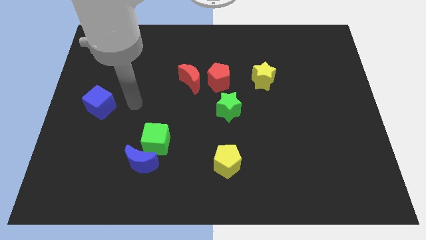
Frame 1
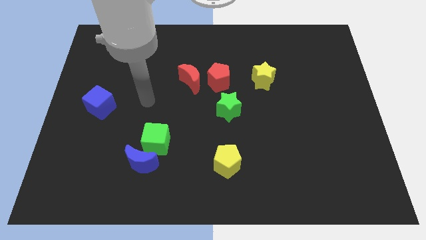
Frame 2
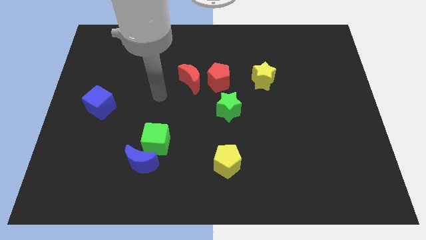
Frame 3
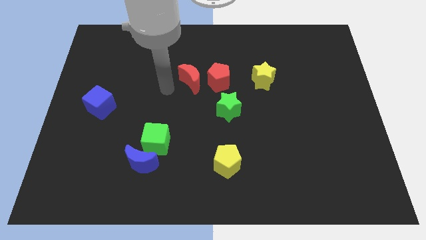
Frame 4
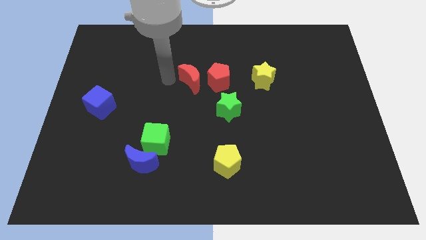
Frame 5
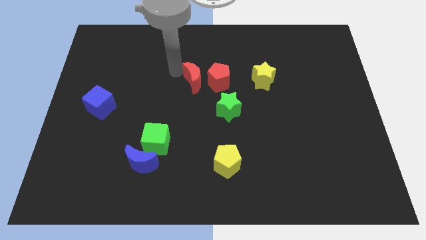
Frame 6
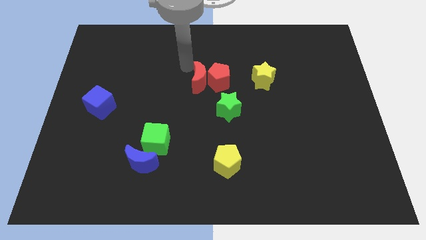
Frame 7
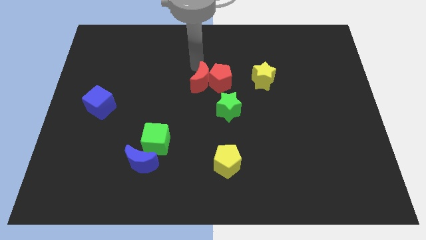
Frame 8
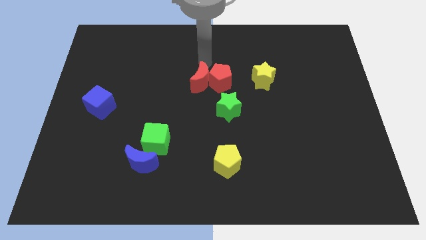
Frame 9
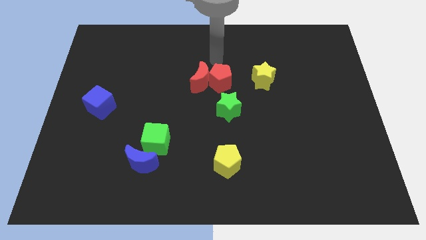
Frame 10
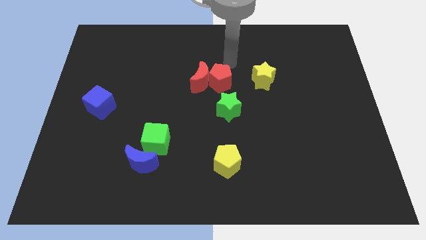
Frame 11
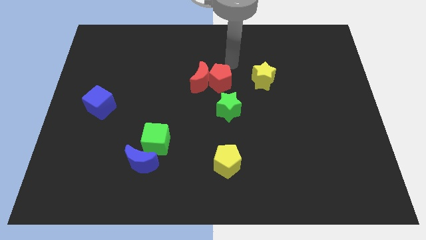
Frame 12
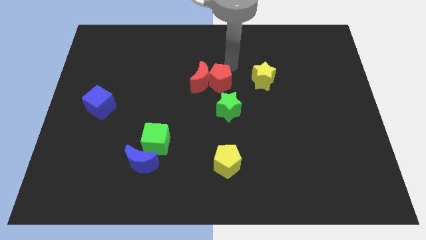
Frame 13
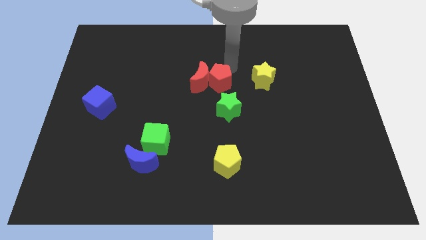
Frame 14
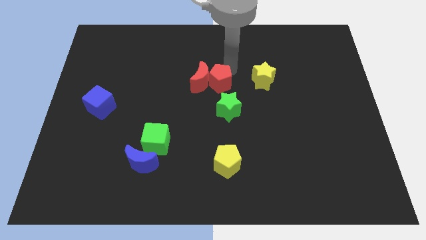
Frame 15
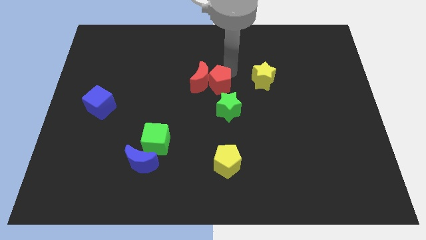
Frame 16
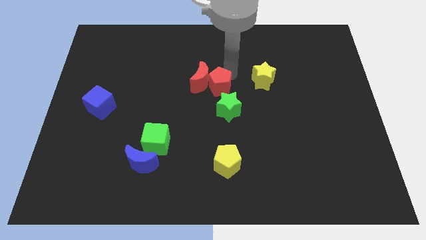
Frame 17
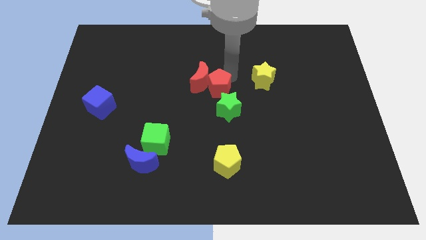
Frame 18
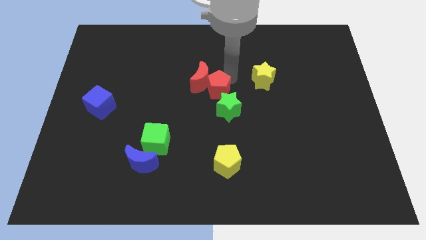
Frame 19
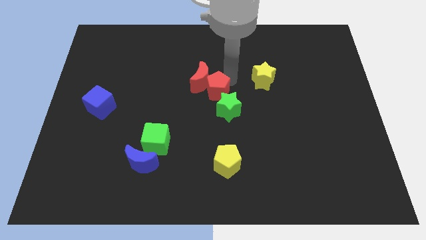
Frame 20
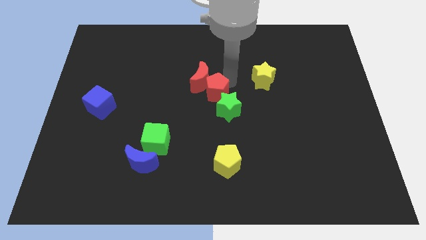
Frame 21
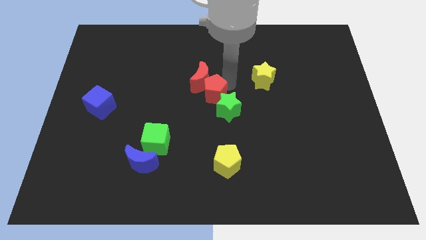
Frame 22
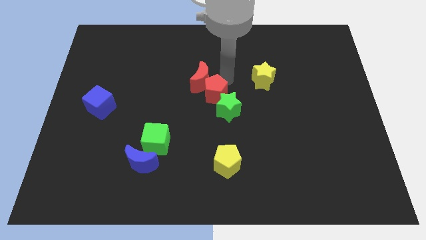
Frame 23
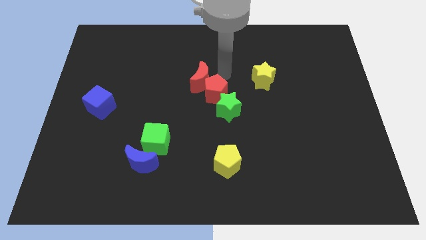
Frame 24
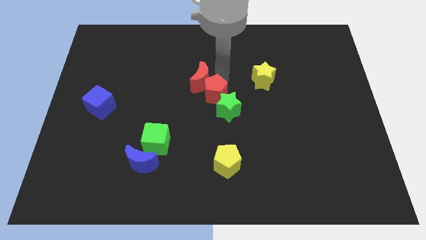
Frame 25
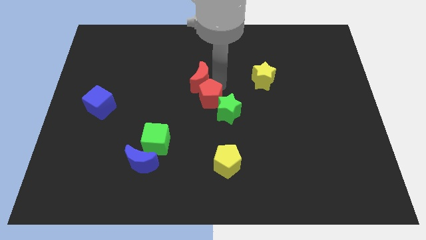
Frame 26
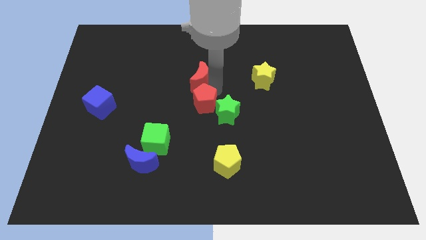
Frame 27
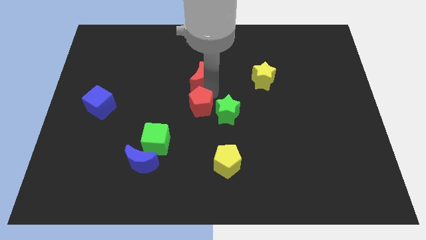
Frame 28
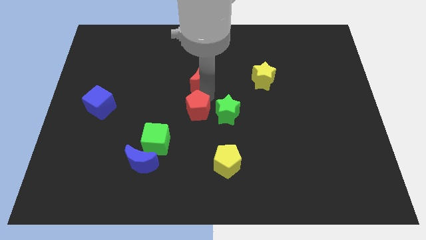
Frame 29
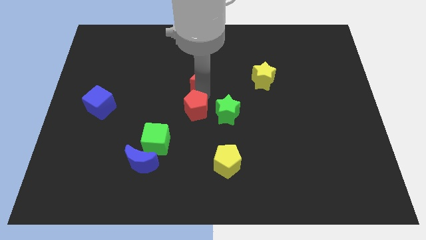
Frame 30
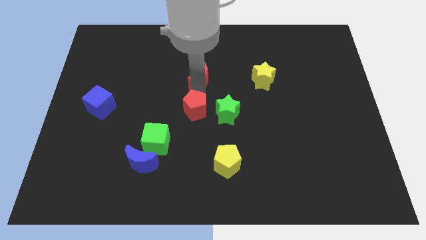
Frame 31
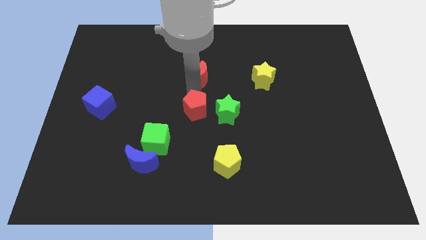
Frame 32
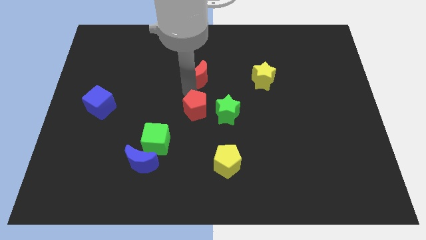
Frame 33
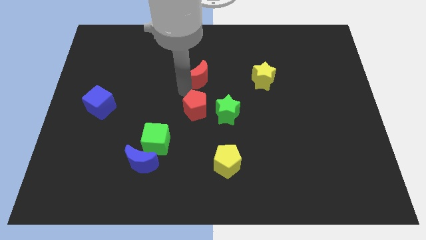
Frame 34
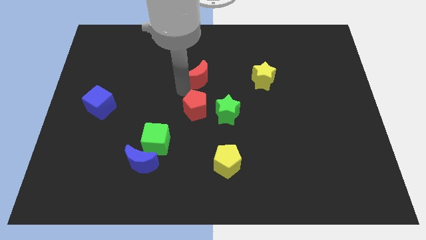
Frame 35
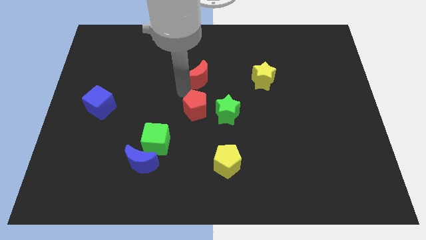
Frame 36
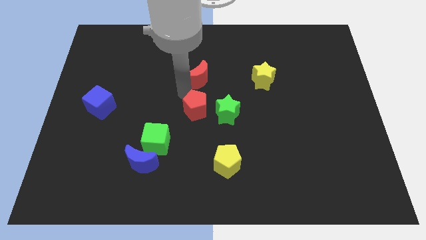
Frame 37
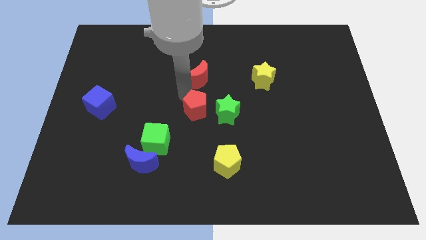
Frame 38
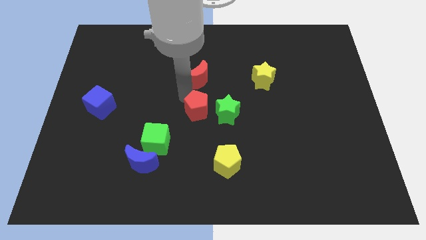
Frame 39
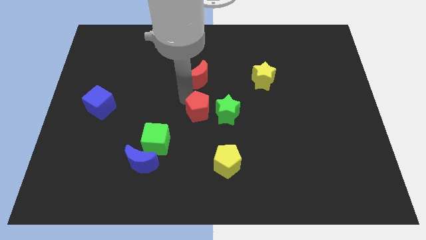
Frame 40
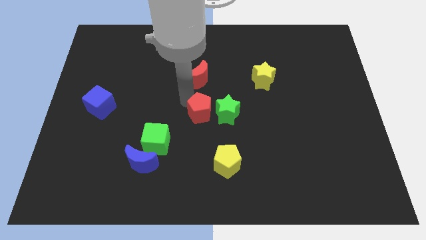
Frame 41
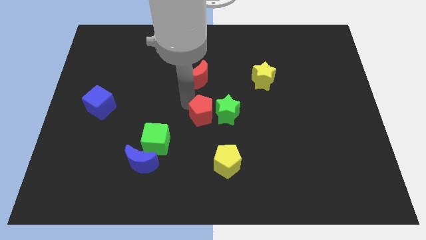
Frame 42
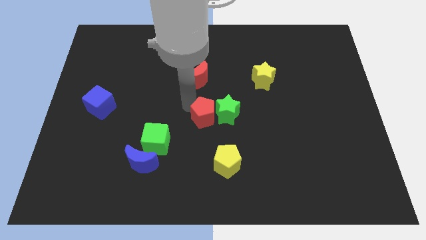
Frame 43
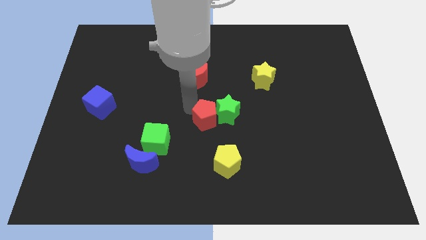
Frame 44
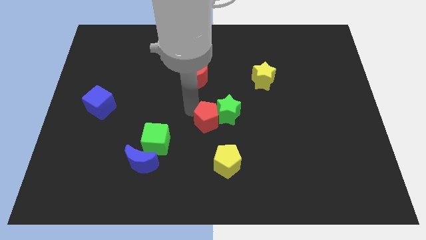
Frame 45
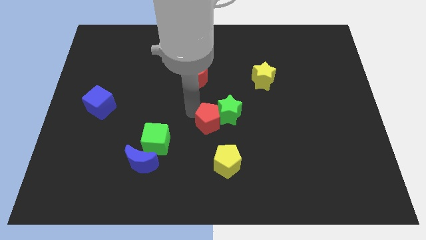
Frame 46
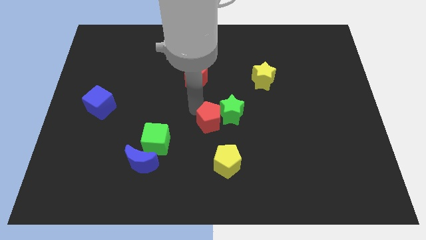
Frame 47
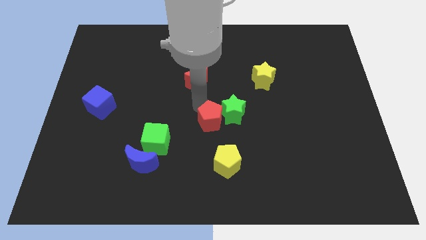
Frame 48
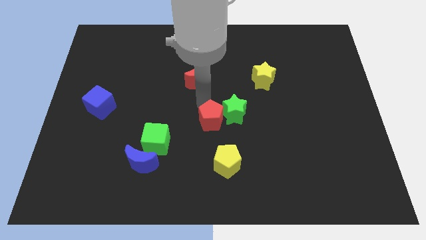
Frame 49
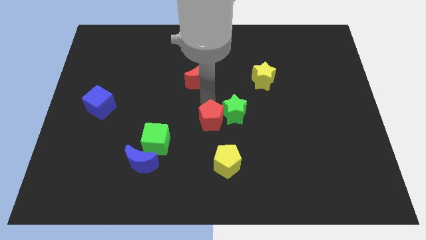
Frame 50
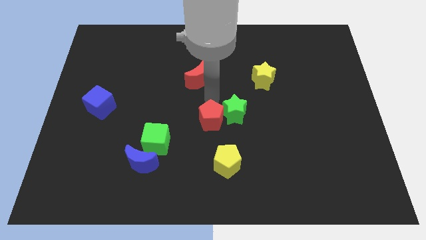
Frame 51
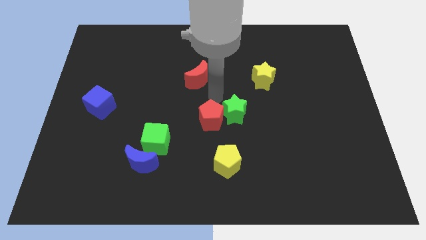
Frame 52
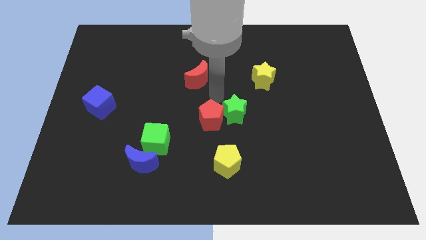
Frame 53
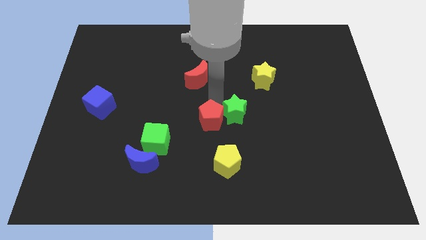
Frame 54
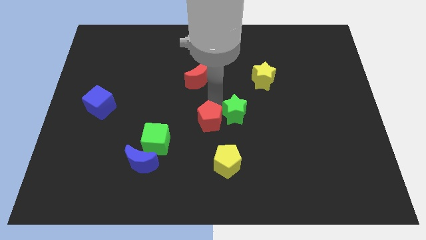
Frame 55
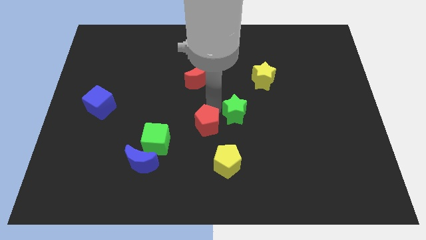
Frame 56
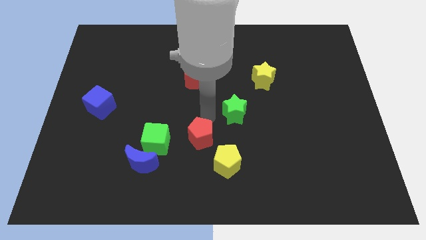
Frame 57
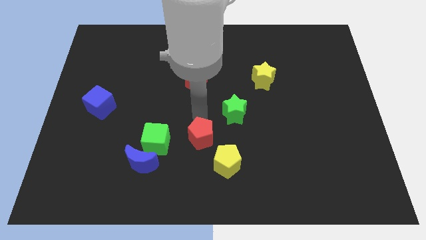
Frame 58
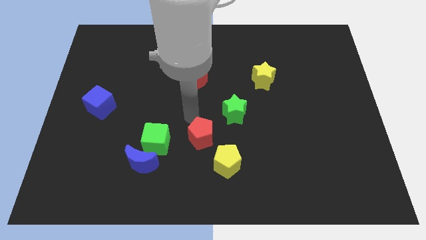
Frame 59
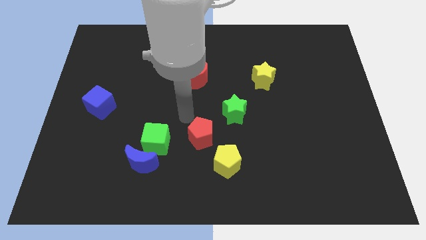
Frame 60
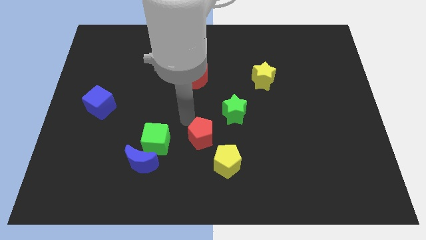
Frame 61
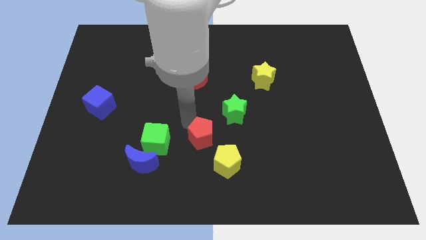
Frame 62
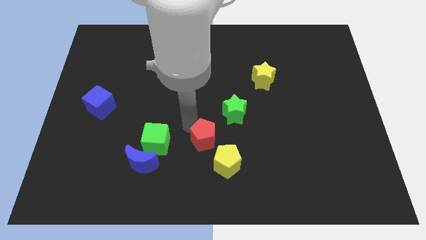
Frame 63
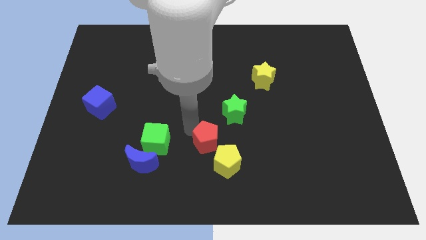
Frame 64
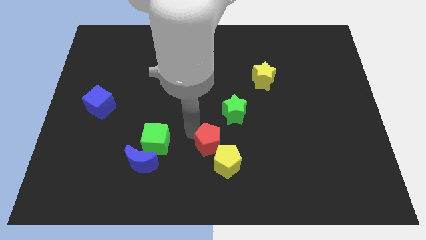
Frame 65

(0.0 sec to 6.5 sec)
put the red pentagon next to the yellow pentagon

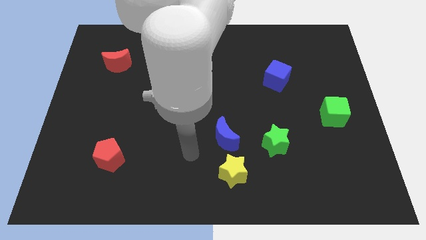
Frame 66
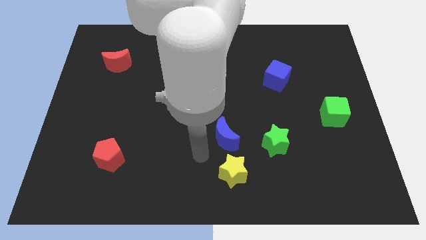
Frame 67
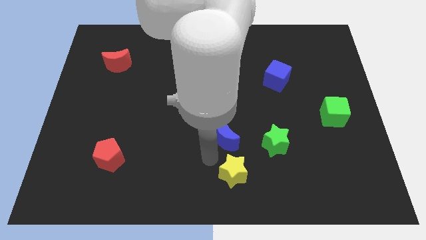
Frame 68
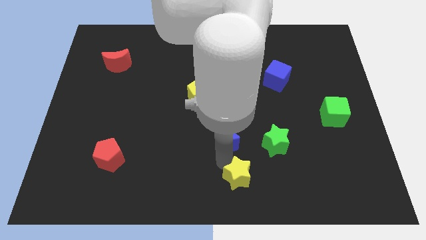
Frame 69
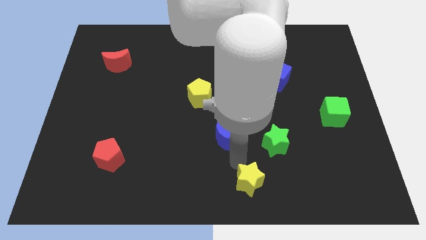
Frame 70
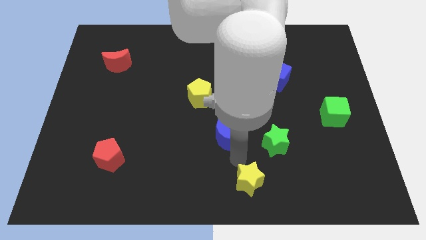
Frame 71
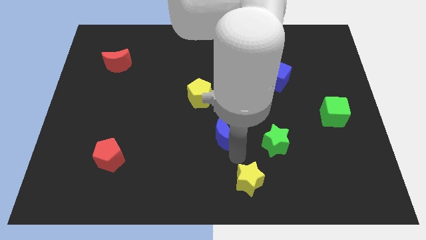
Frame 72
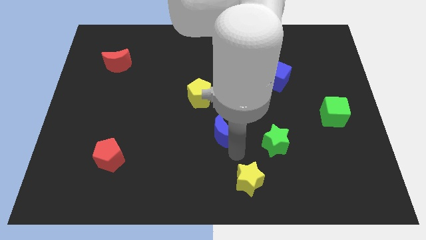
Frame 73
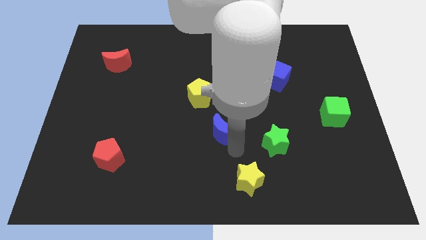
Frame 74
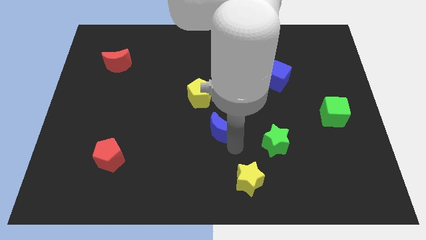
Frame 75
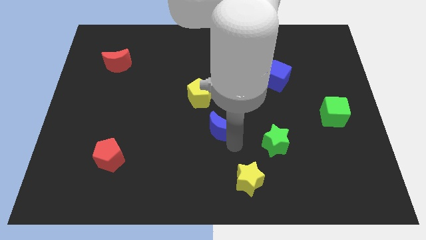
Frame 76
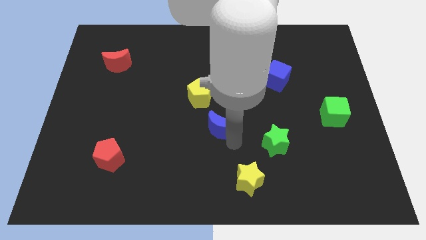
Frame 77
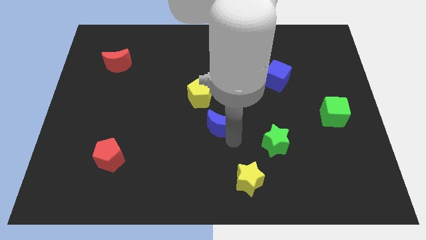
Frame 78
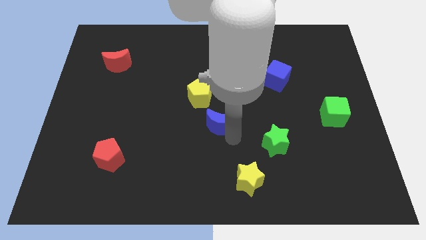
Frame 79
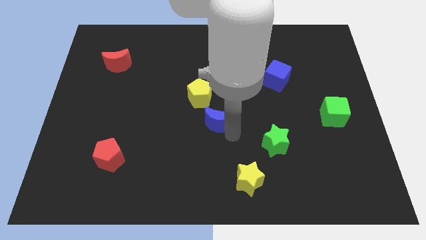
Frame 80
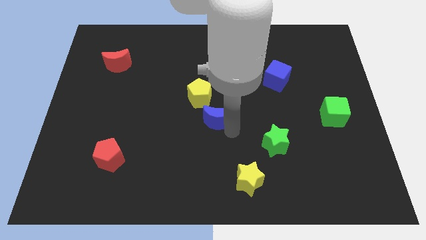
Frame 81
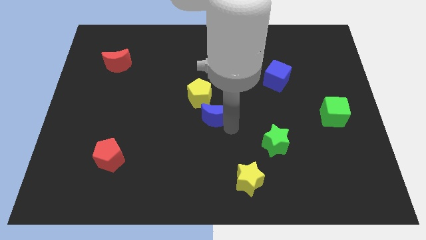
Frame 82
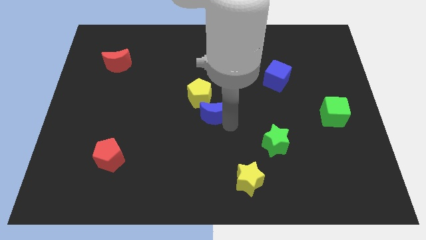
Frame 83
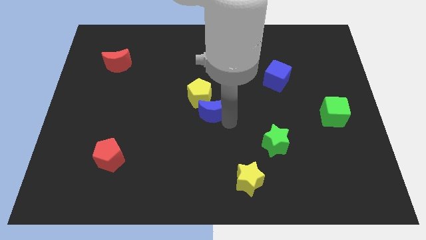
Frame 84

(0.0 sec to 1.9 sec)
put the blue moon close to the yellow pentagon
